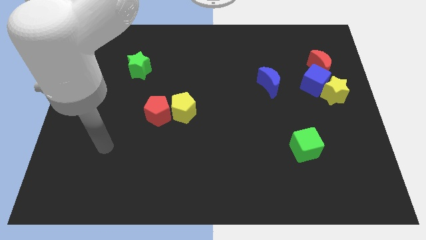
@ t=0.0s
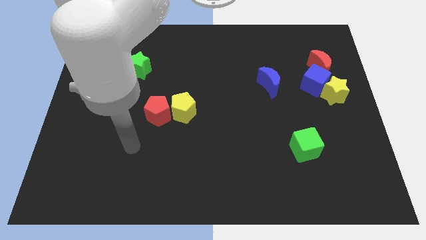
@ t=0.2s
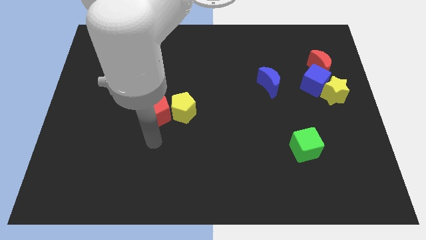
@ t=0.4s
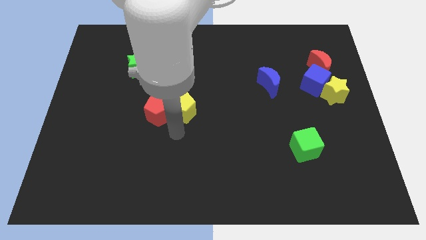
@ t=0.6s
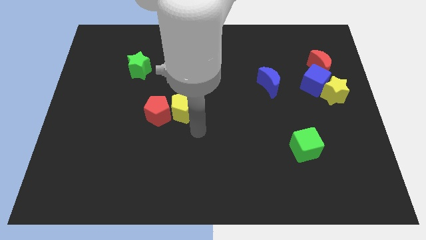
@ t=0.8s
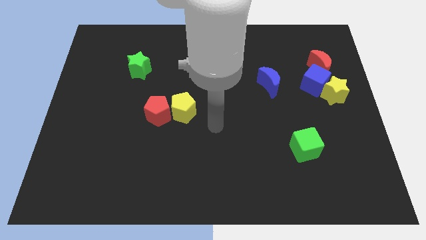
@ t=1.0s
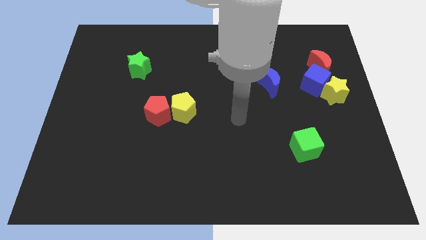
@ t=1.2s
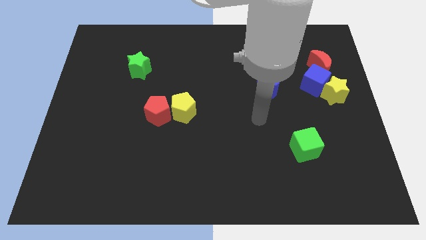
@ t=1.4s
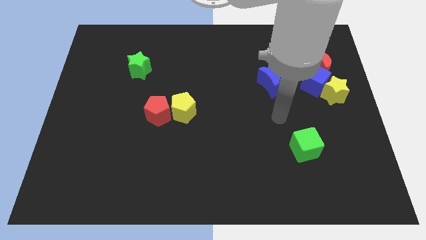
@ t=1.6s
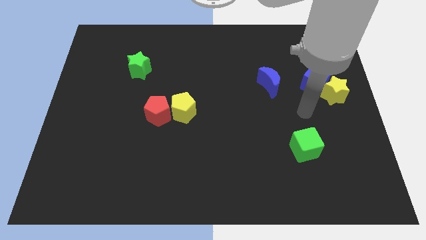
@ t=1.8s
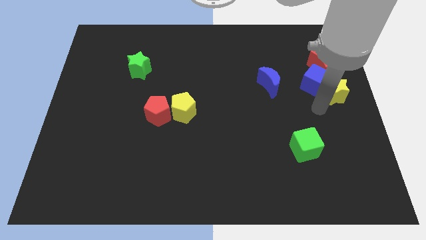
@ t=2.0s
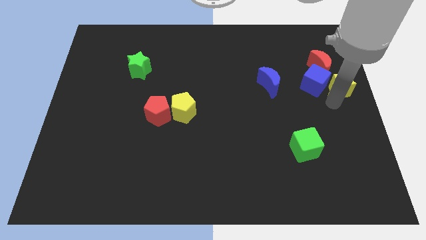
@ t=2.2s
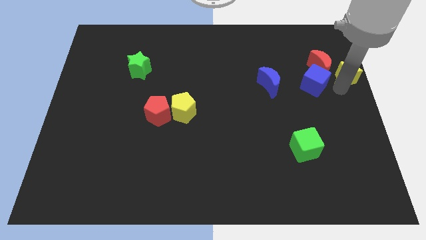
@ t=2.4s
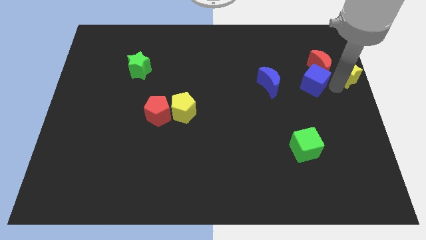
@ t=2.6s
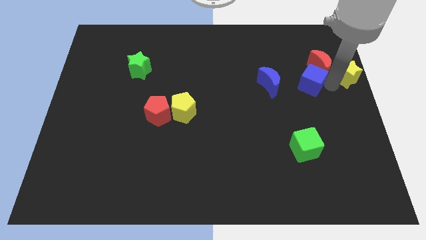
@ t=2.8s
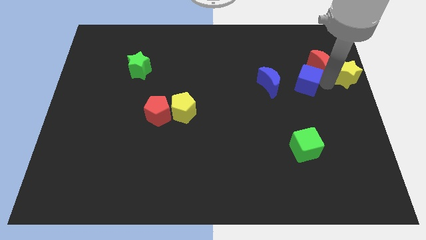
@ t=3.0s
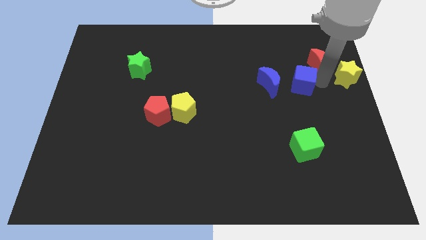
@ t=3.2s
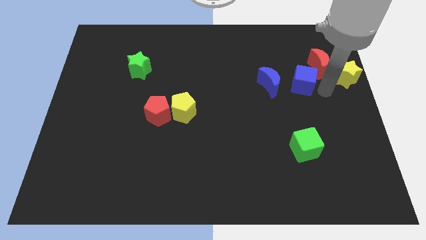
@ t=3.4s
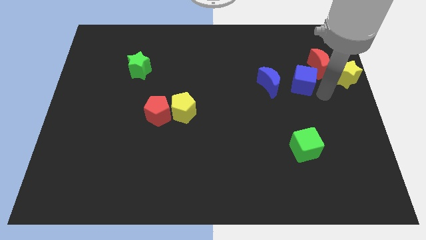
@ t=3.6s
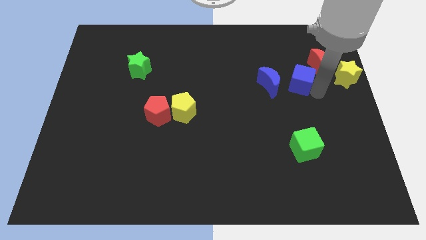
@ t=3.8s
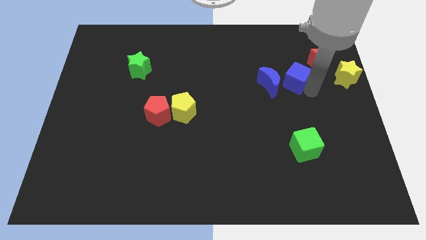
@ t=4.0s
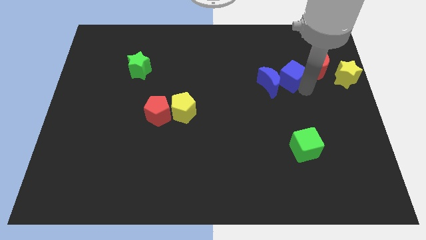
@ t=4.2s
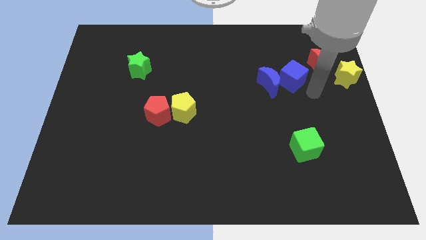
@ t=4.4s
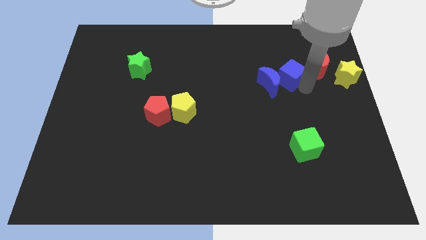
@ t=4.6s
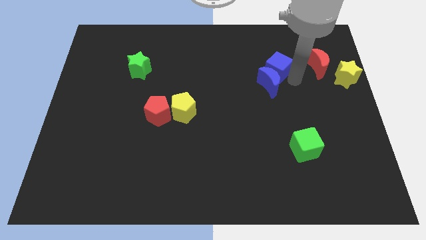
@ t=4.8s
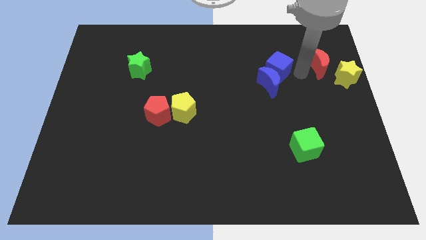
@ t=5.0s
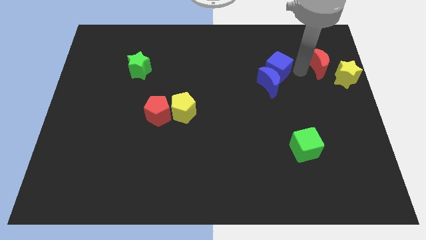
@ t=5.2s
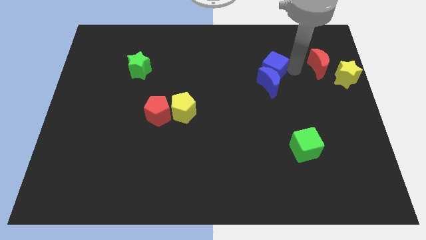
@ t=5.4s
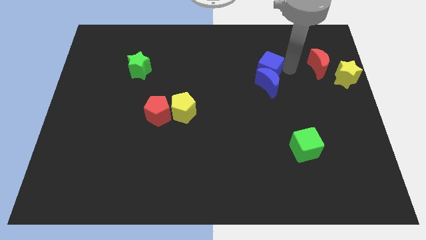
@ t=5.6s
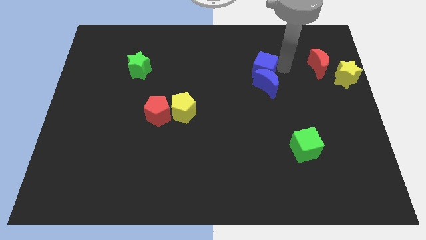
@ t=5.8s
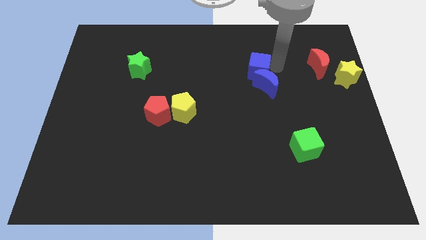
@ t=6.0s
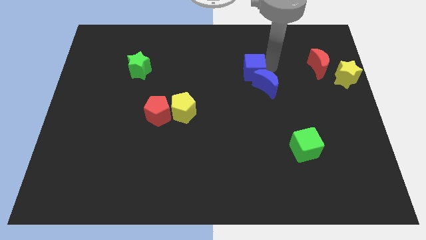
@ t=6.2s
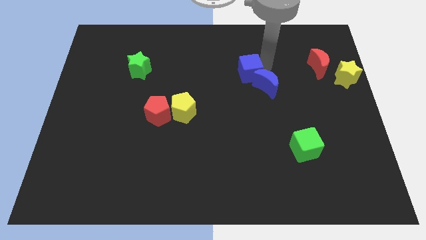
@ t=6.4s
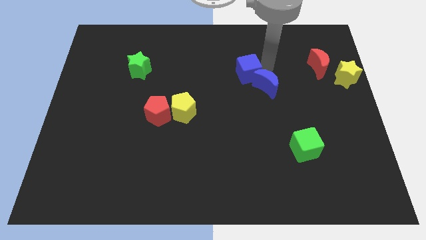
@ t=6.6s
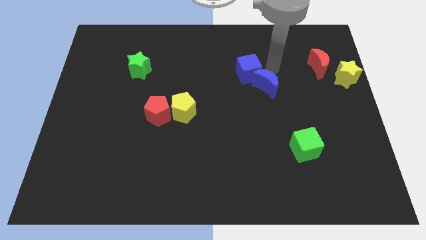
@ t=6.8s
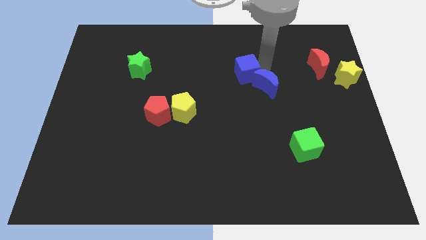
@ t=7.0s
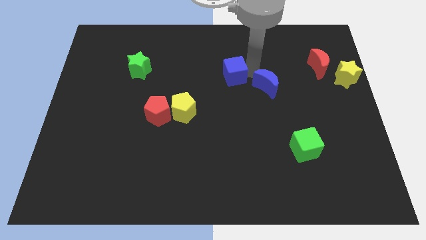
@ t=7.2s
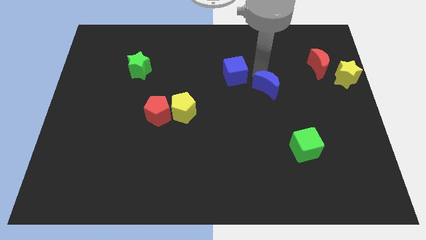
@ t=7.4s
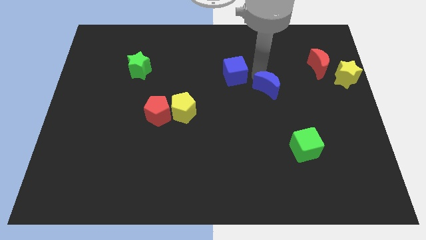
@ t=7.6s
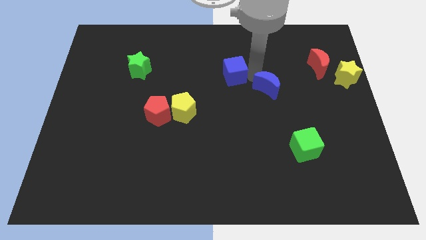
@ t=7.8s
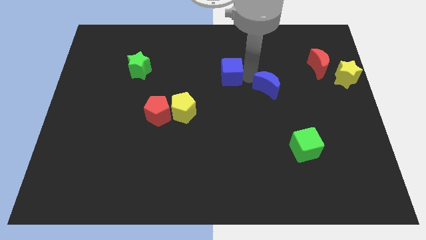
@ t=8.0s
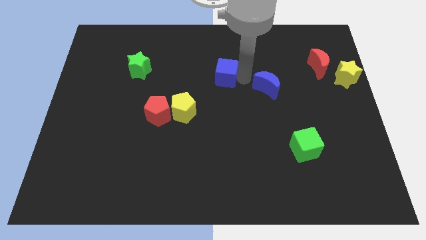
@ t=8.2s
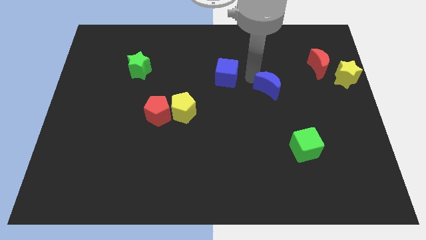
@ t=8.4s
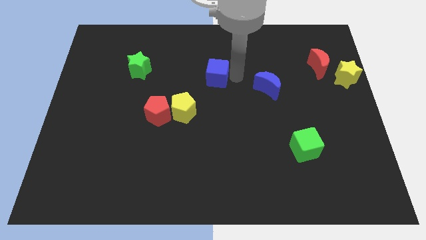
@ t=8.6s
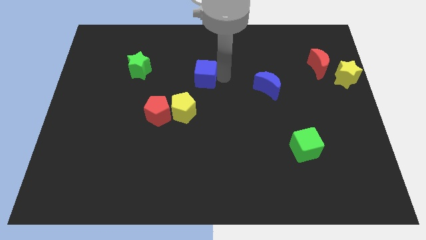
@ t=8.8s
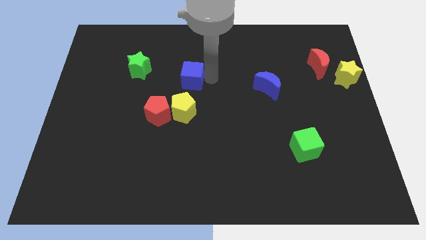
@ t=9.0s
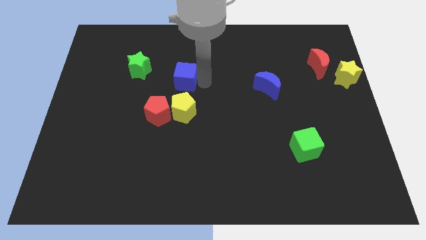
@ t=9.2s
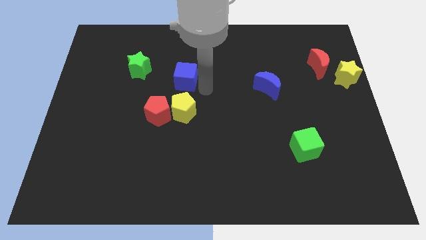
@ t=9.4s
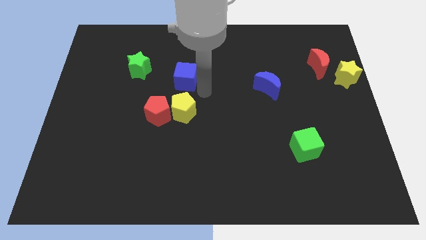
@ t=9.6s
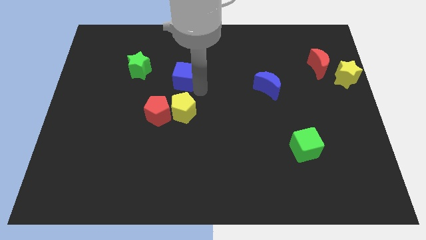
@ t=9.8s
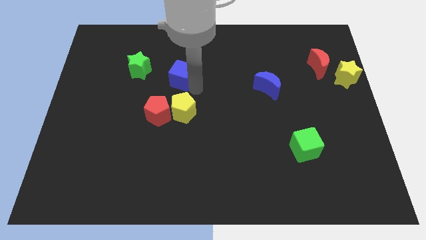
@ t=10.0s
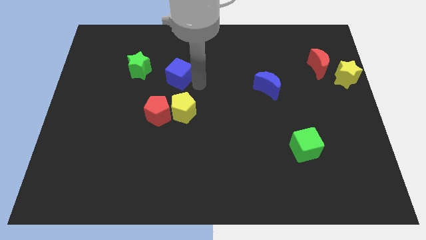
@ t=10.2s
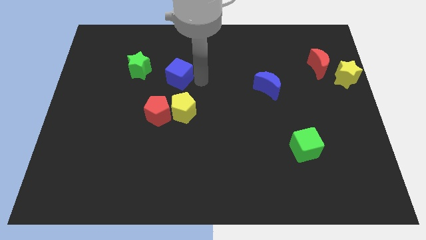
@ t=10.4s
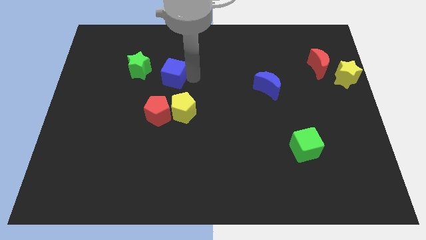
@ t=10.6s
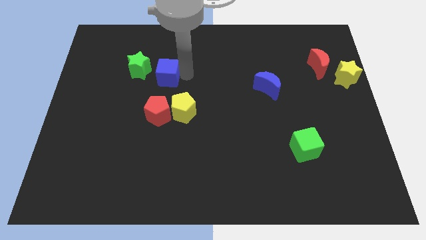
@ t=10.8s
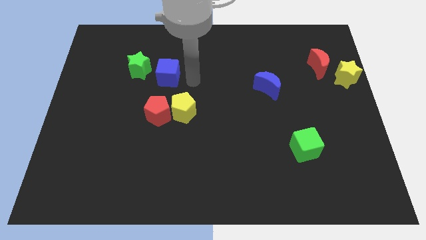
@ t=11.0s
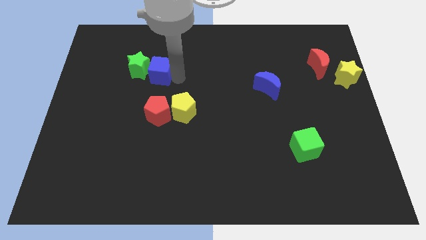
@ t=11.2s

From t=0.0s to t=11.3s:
slide the blue cube to the green star

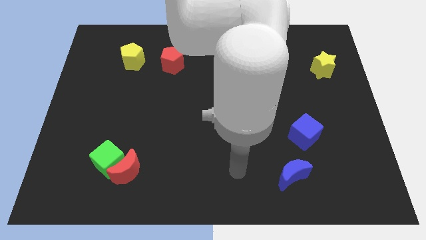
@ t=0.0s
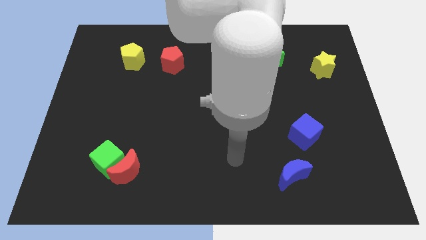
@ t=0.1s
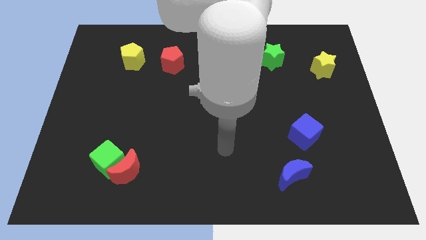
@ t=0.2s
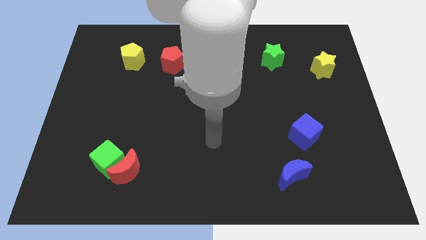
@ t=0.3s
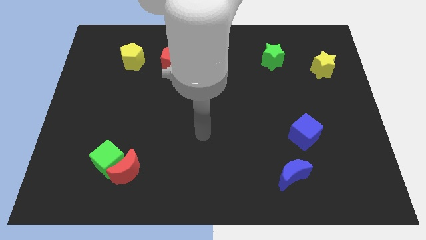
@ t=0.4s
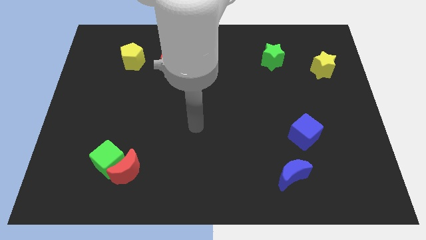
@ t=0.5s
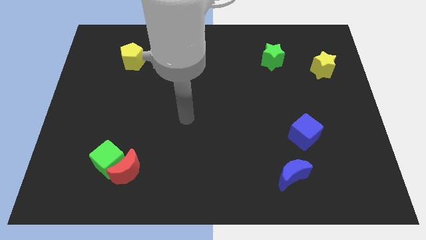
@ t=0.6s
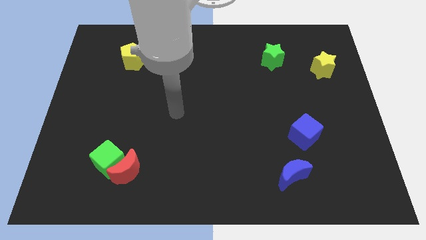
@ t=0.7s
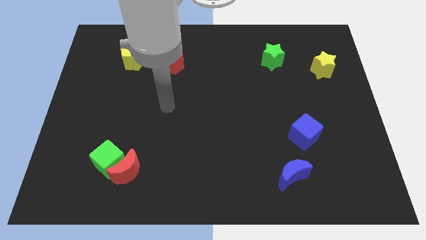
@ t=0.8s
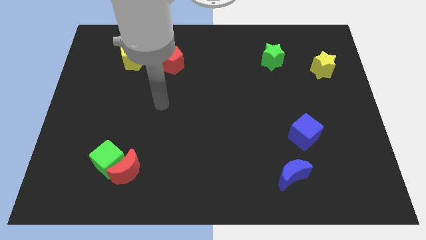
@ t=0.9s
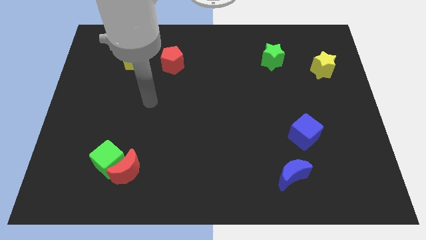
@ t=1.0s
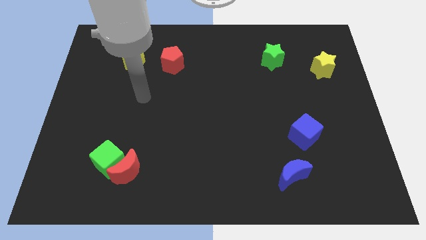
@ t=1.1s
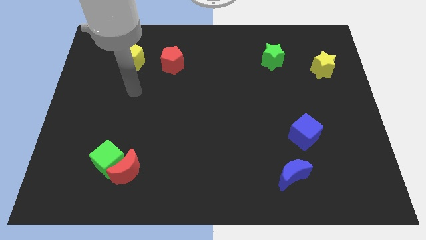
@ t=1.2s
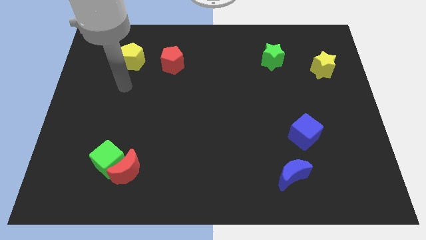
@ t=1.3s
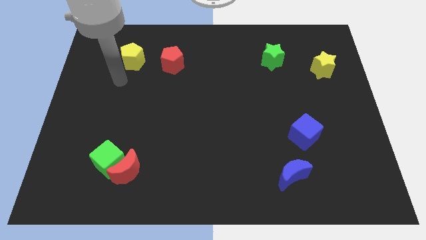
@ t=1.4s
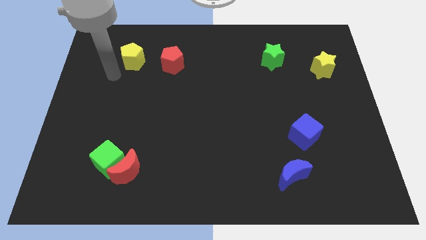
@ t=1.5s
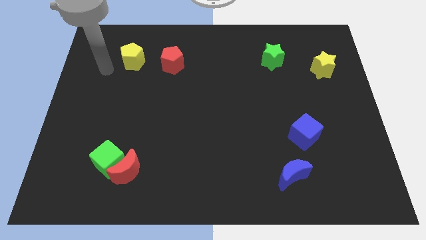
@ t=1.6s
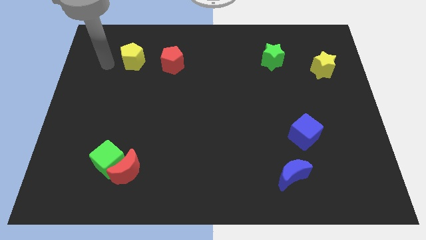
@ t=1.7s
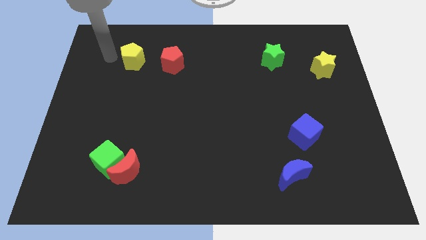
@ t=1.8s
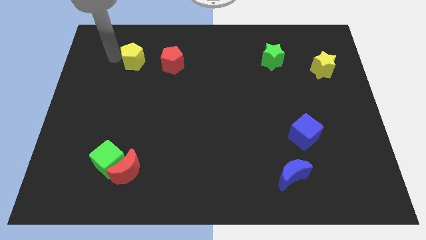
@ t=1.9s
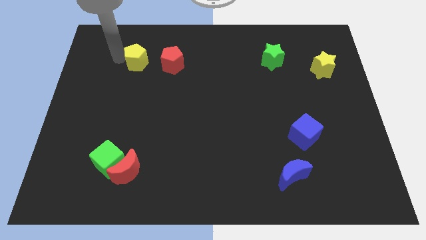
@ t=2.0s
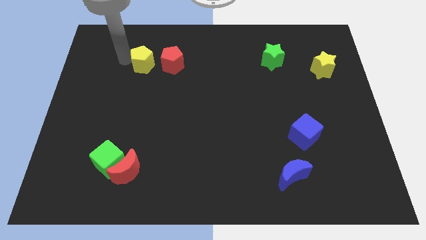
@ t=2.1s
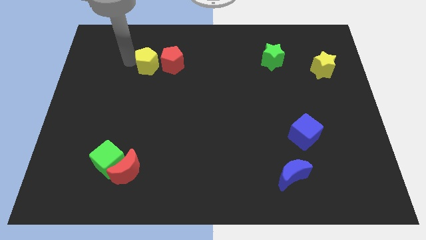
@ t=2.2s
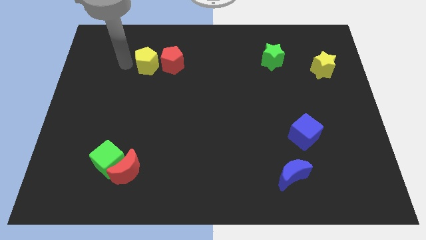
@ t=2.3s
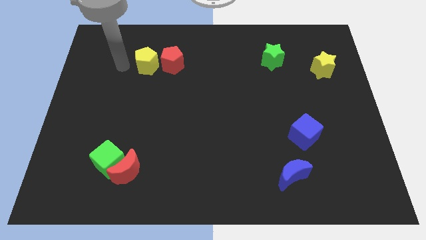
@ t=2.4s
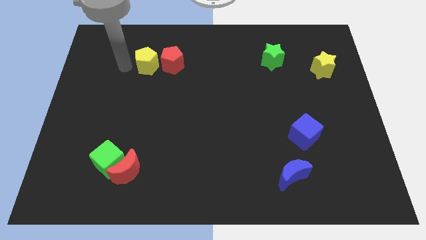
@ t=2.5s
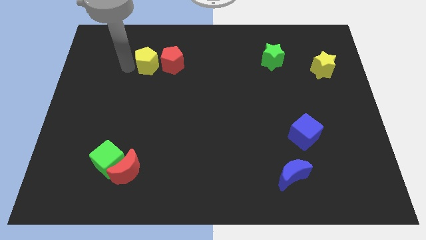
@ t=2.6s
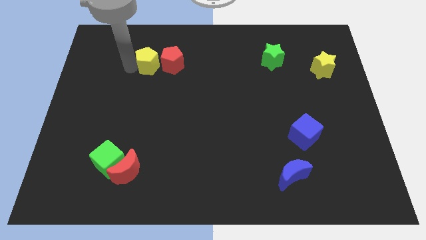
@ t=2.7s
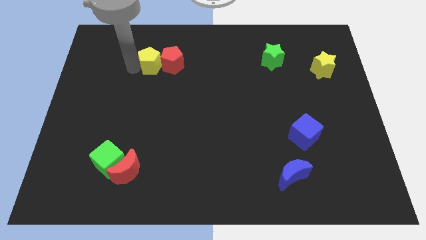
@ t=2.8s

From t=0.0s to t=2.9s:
slide the yellow pentagon next to the red pentagon
